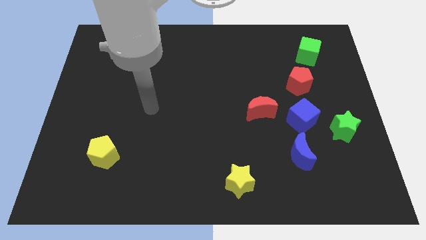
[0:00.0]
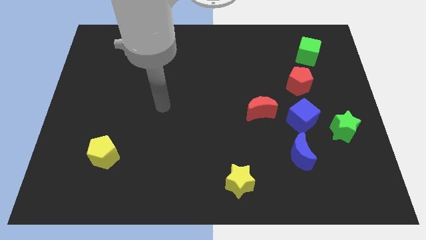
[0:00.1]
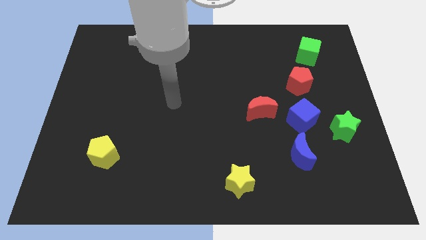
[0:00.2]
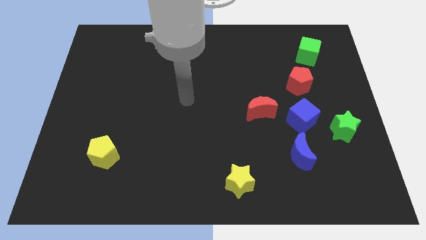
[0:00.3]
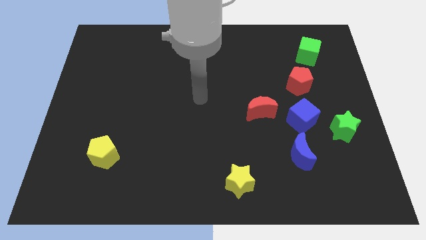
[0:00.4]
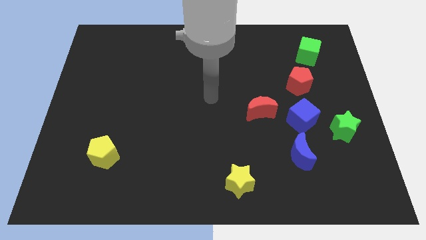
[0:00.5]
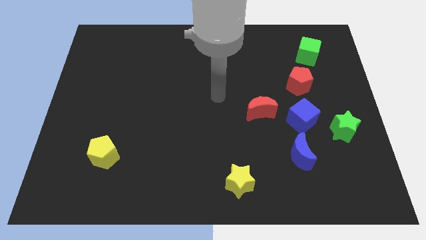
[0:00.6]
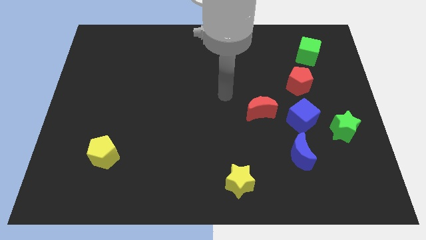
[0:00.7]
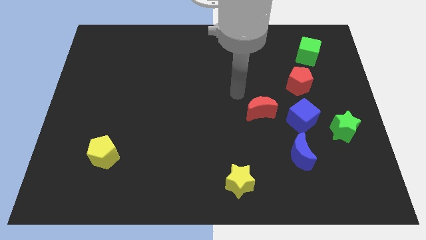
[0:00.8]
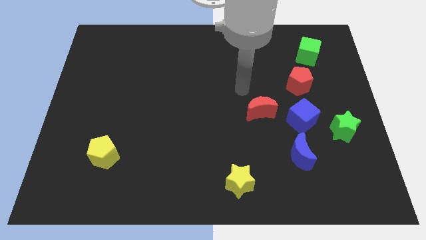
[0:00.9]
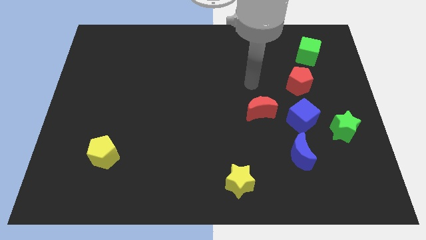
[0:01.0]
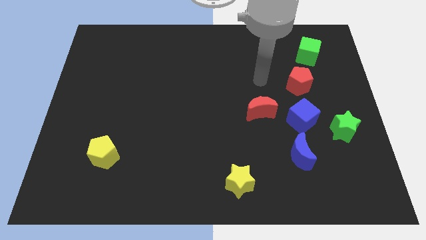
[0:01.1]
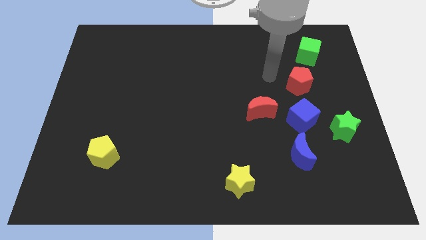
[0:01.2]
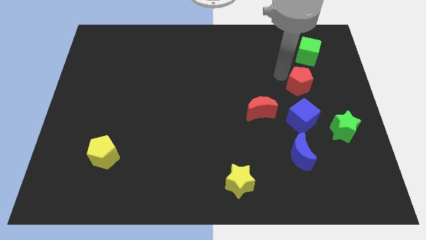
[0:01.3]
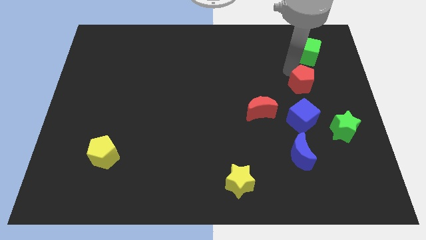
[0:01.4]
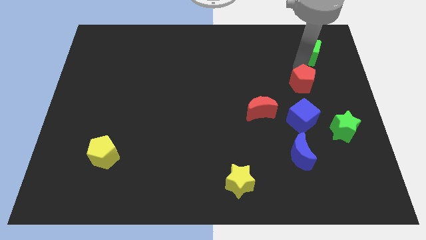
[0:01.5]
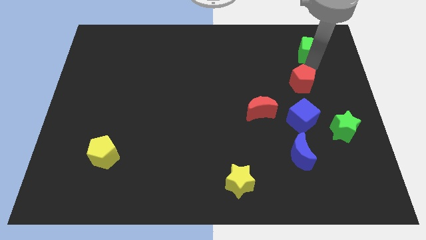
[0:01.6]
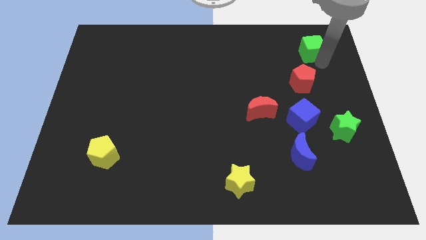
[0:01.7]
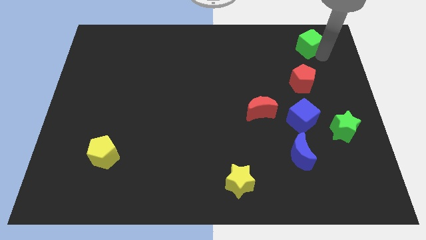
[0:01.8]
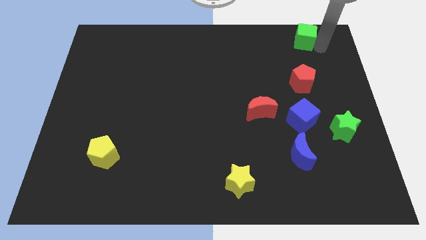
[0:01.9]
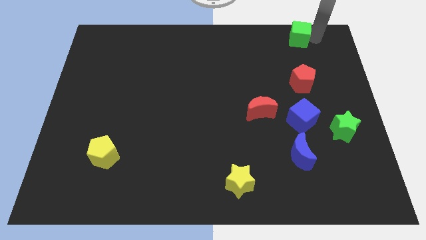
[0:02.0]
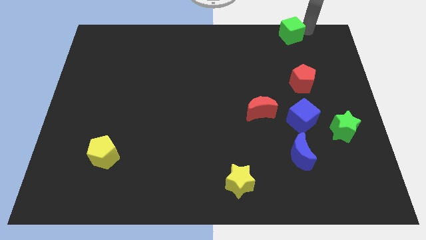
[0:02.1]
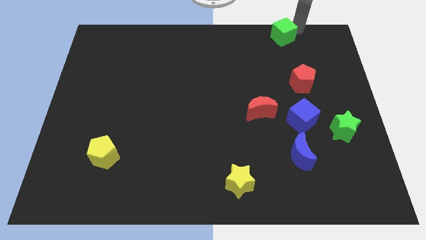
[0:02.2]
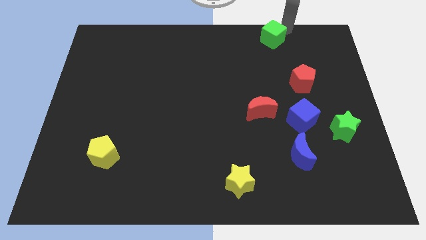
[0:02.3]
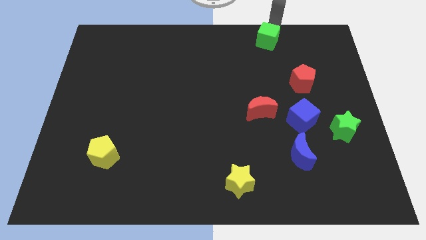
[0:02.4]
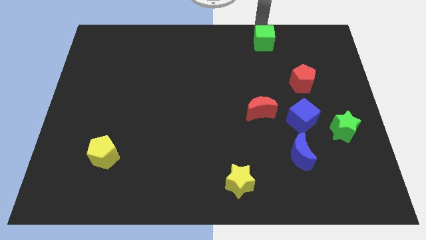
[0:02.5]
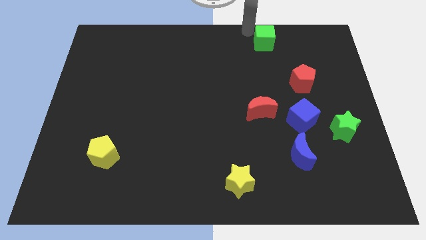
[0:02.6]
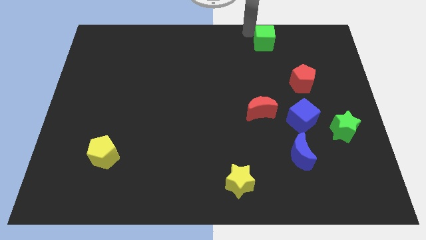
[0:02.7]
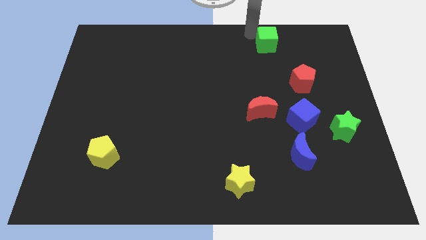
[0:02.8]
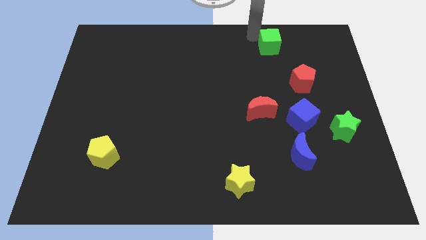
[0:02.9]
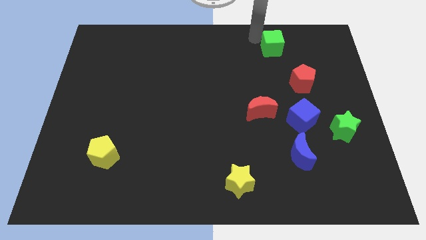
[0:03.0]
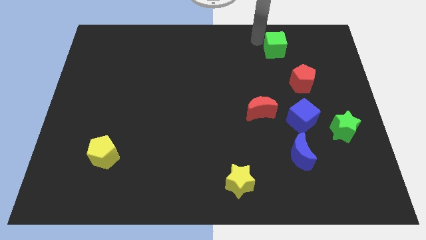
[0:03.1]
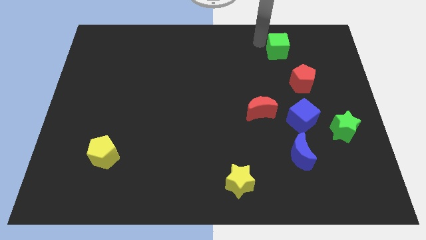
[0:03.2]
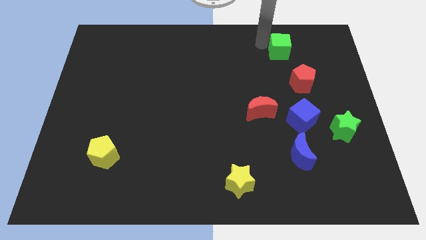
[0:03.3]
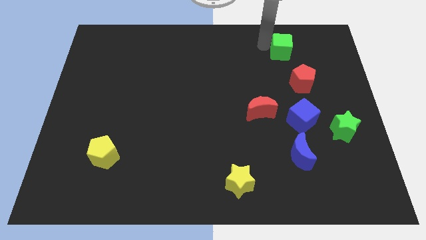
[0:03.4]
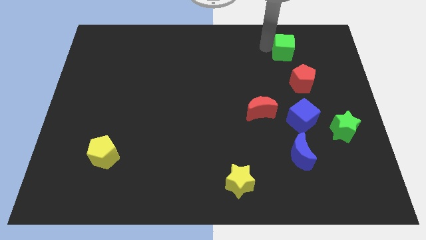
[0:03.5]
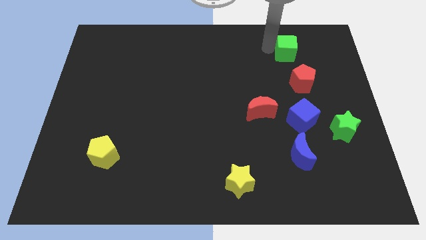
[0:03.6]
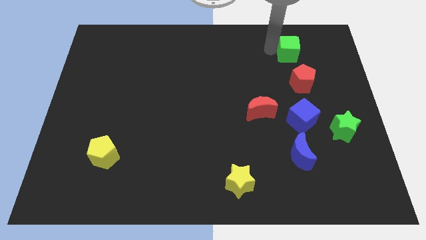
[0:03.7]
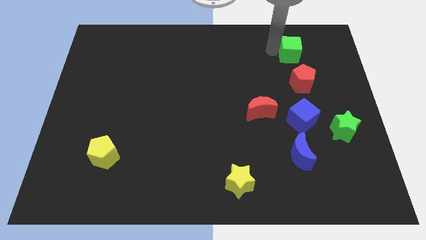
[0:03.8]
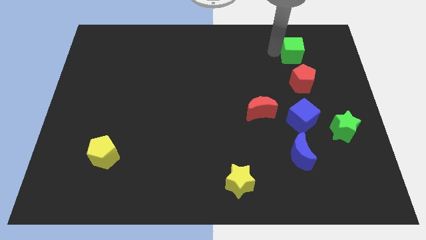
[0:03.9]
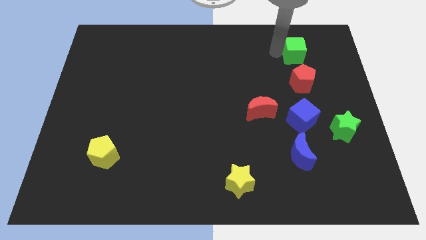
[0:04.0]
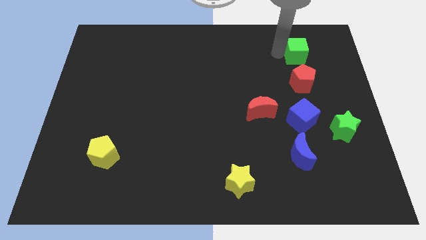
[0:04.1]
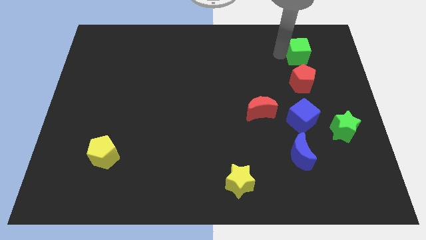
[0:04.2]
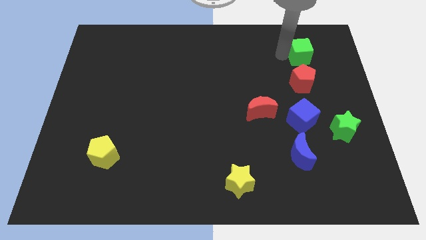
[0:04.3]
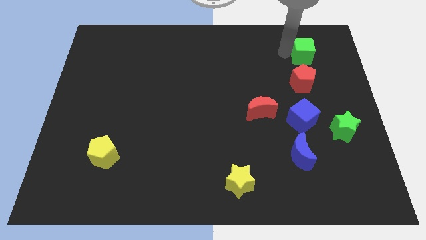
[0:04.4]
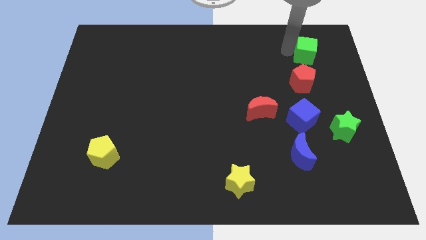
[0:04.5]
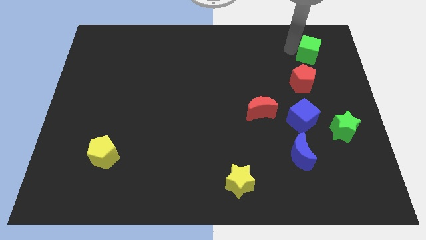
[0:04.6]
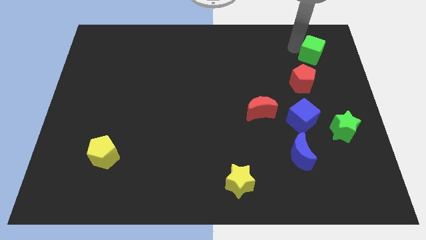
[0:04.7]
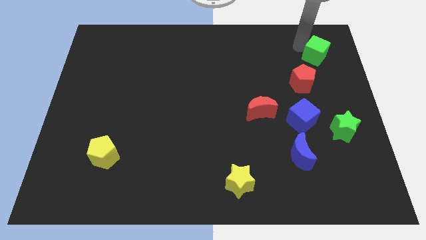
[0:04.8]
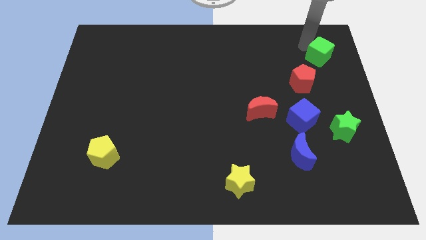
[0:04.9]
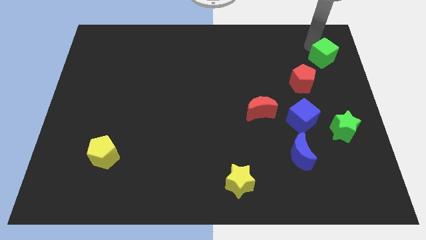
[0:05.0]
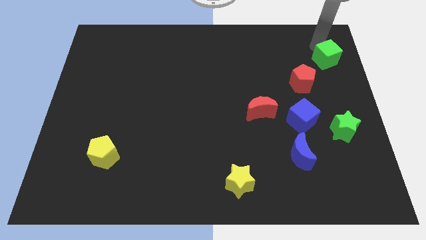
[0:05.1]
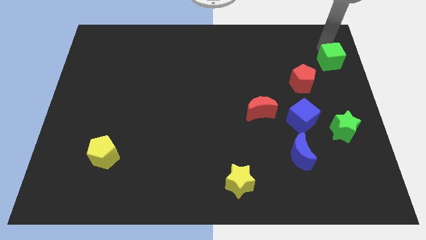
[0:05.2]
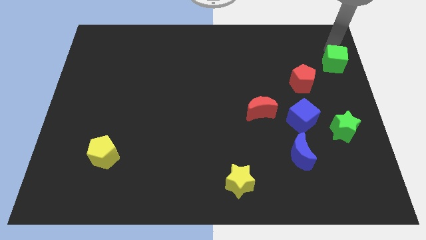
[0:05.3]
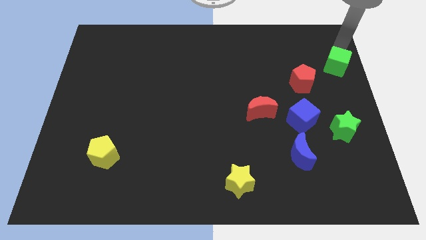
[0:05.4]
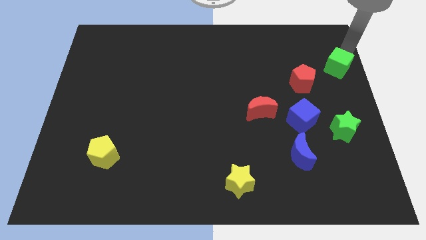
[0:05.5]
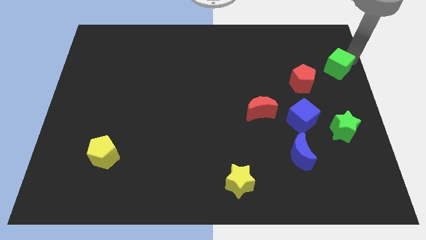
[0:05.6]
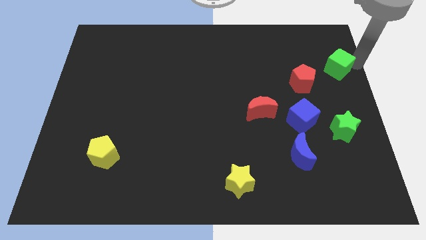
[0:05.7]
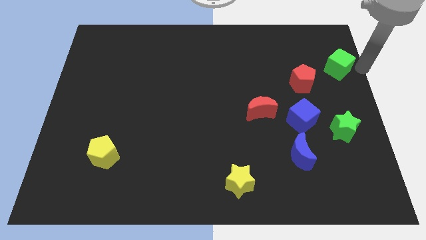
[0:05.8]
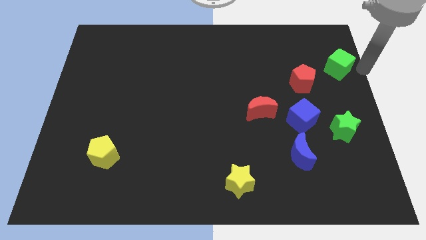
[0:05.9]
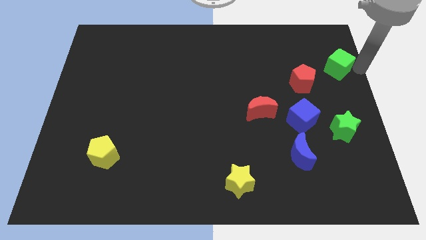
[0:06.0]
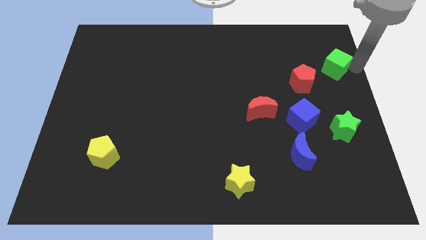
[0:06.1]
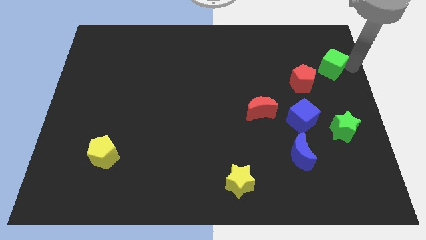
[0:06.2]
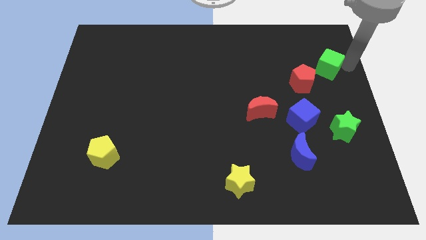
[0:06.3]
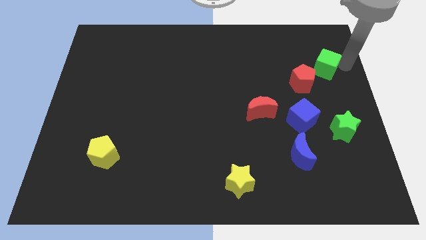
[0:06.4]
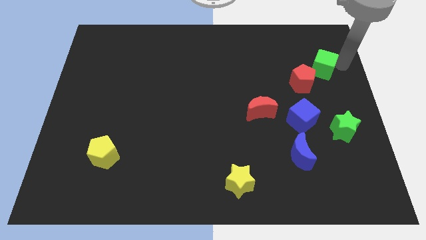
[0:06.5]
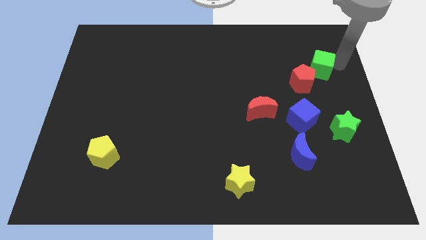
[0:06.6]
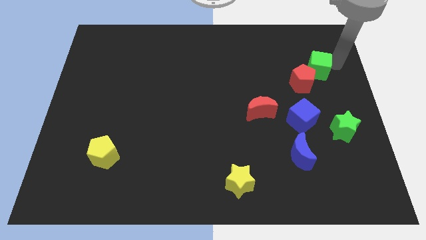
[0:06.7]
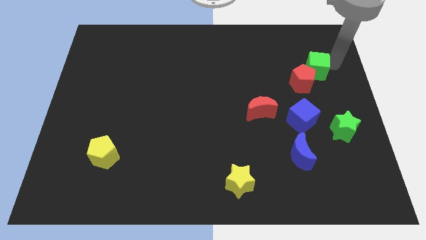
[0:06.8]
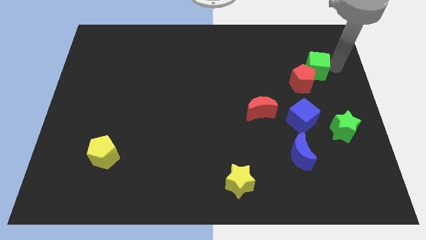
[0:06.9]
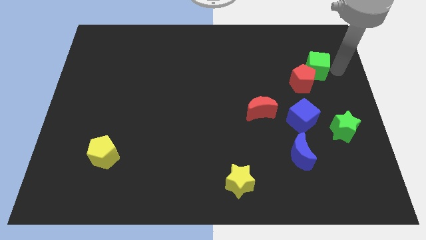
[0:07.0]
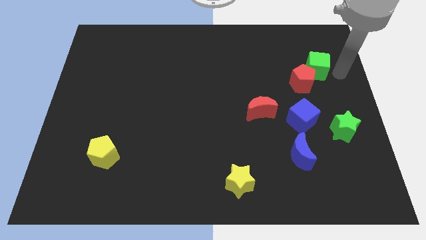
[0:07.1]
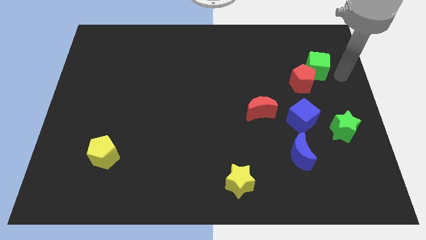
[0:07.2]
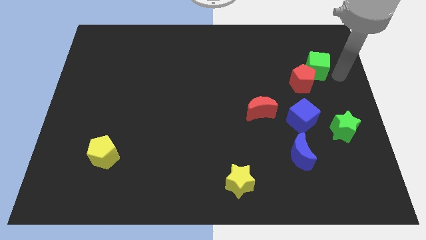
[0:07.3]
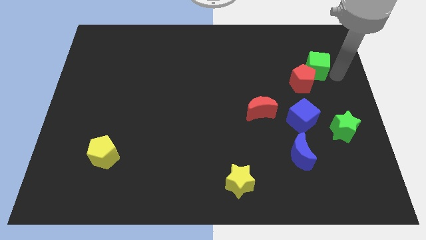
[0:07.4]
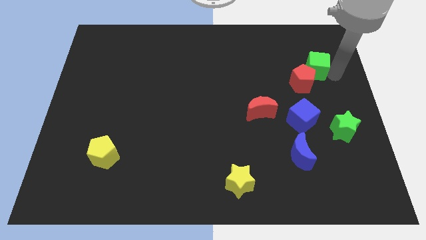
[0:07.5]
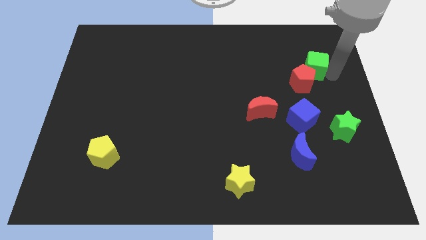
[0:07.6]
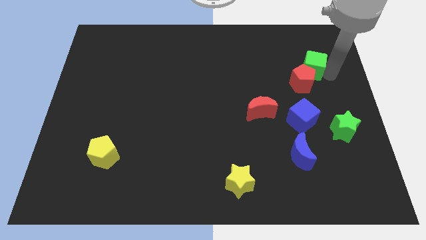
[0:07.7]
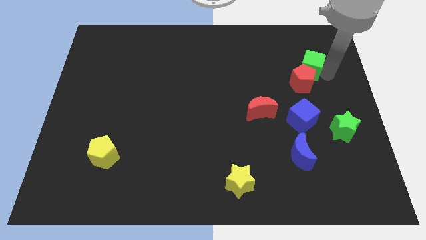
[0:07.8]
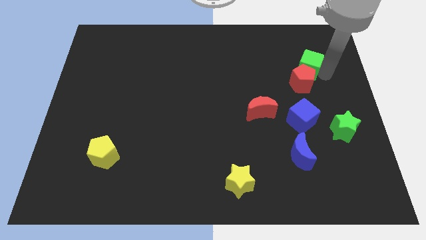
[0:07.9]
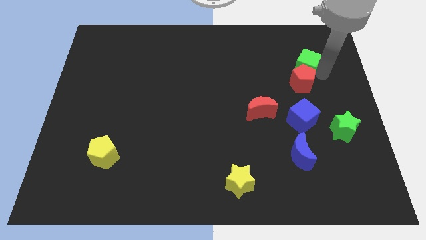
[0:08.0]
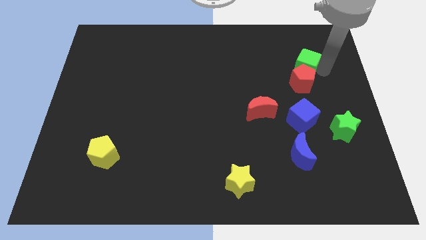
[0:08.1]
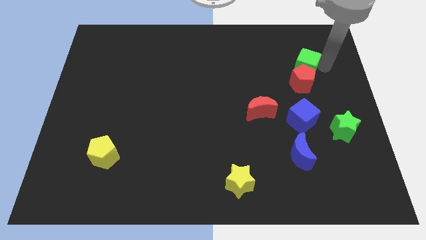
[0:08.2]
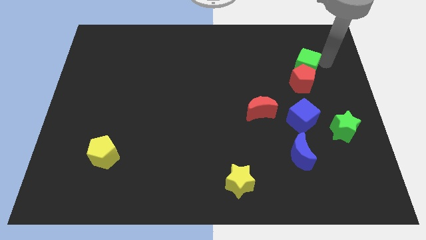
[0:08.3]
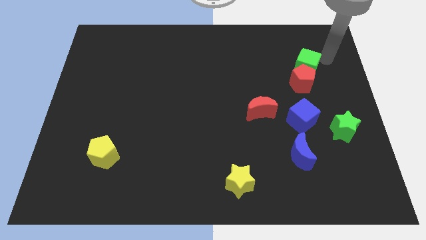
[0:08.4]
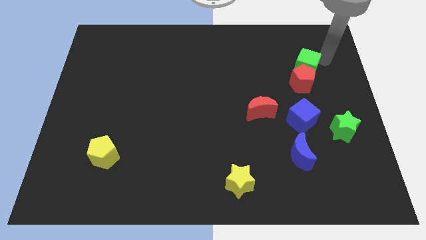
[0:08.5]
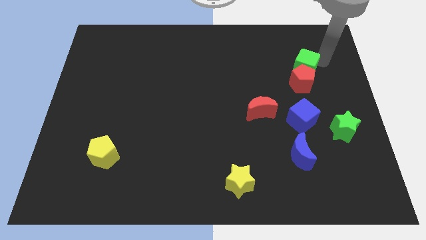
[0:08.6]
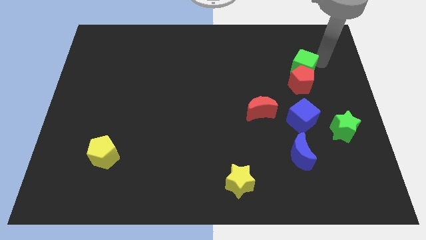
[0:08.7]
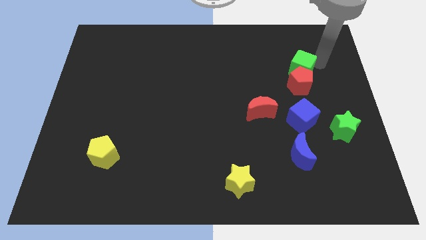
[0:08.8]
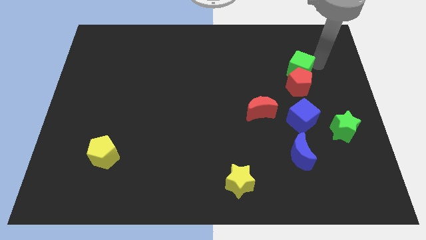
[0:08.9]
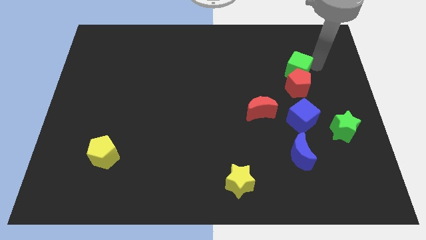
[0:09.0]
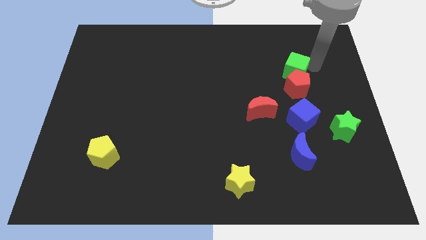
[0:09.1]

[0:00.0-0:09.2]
push the green cube down and then to the left a little
